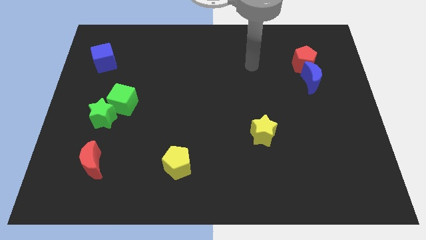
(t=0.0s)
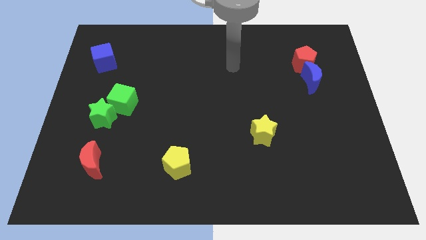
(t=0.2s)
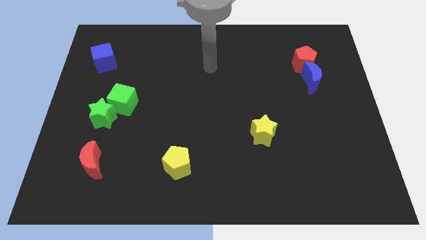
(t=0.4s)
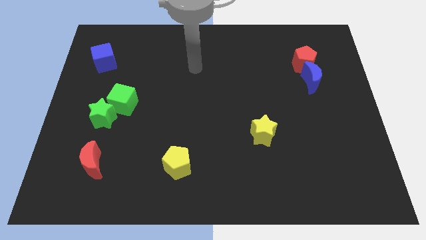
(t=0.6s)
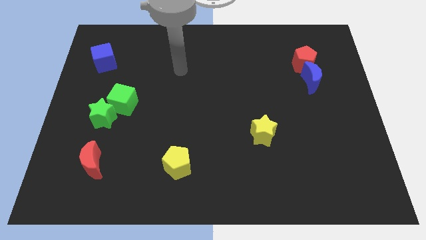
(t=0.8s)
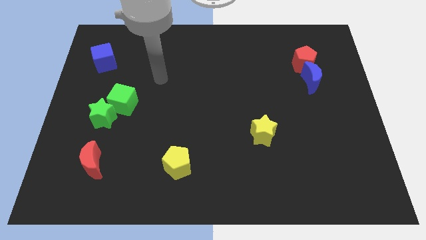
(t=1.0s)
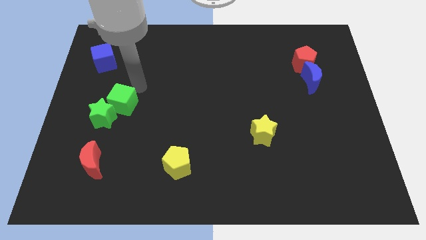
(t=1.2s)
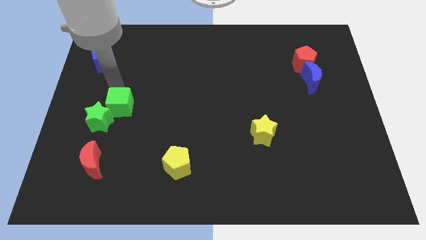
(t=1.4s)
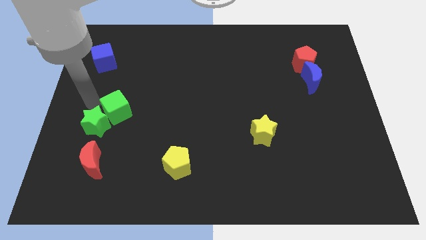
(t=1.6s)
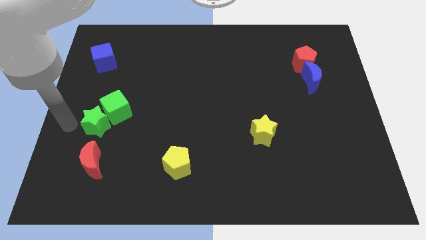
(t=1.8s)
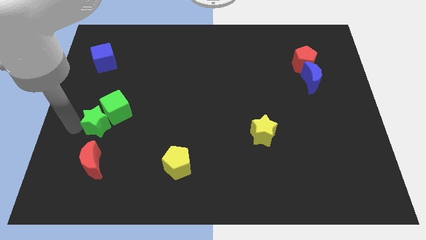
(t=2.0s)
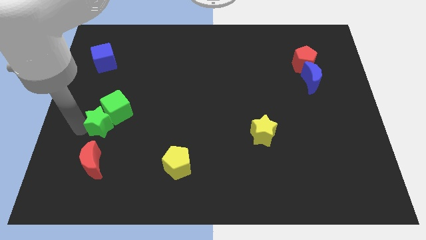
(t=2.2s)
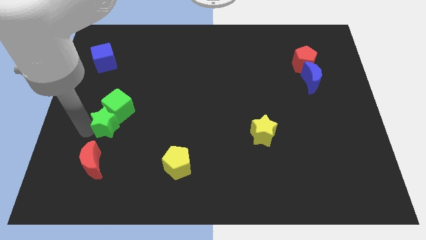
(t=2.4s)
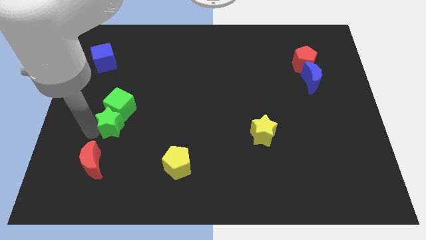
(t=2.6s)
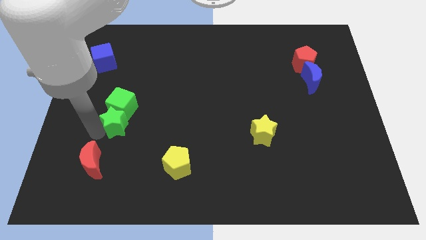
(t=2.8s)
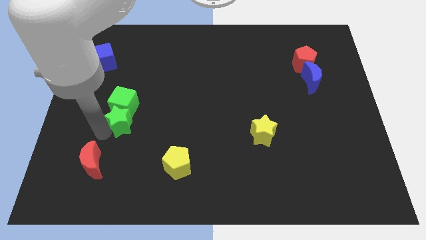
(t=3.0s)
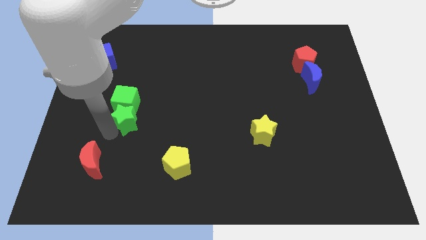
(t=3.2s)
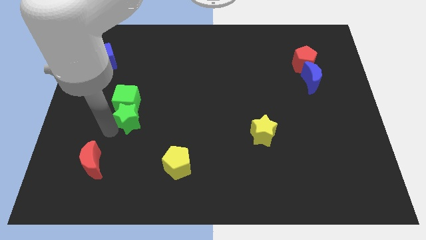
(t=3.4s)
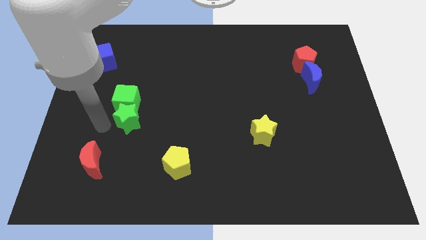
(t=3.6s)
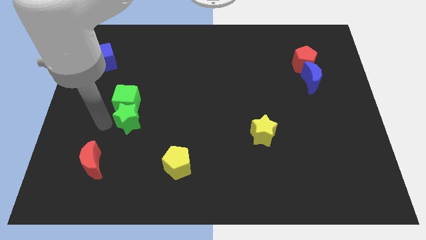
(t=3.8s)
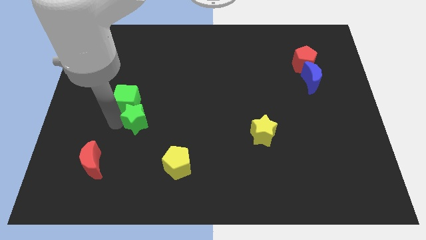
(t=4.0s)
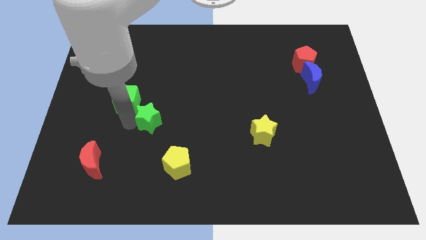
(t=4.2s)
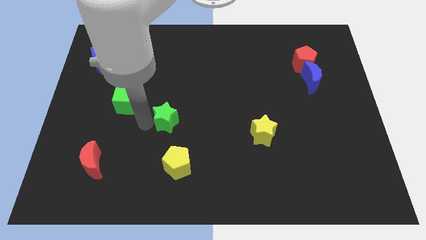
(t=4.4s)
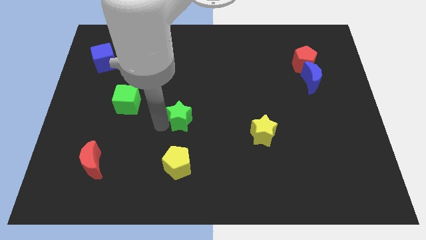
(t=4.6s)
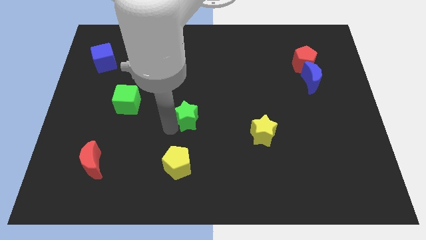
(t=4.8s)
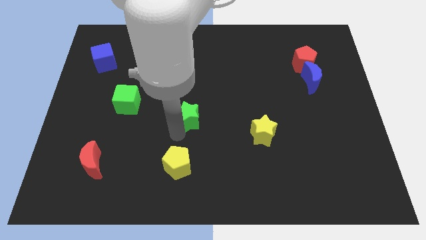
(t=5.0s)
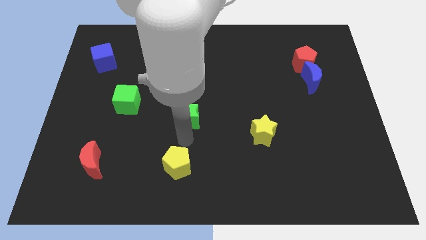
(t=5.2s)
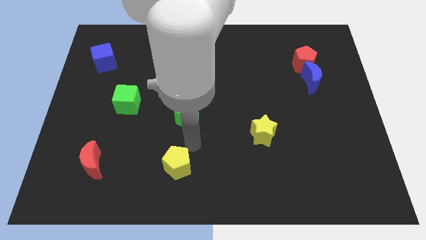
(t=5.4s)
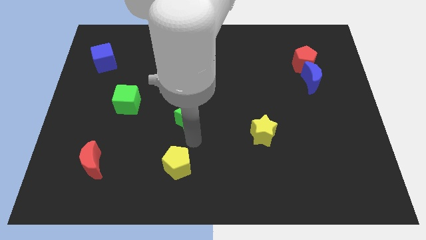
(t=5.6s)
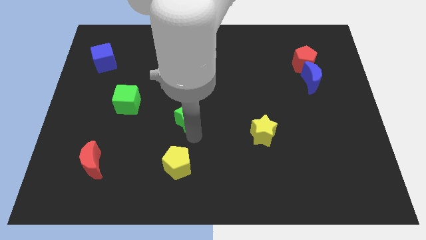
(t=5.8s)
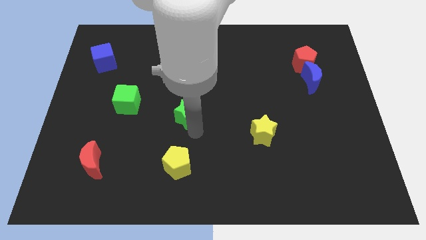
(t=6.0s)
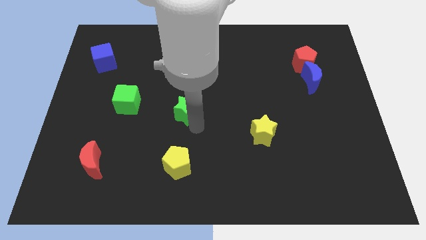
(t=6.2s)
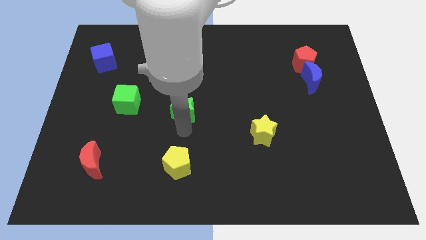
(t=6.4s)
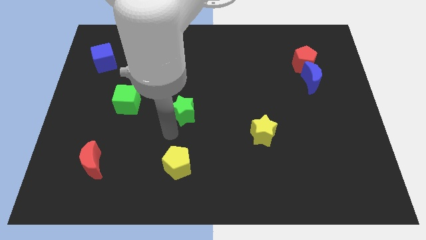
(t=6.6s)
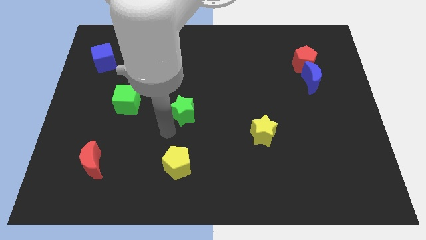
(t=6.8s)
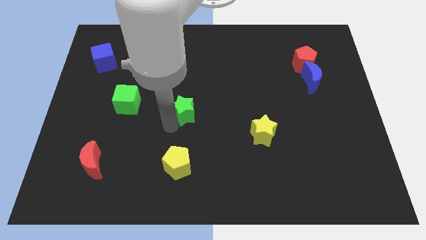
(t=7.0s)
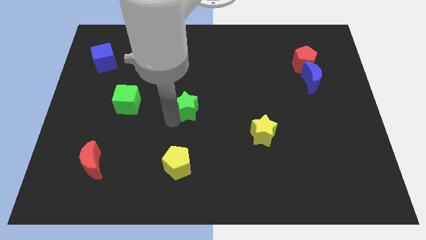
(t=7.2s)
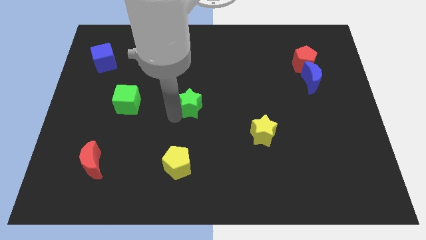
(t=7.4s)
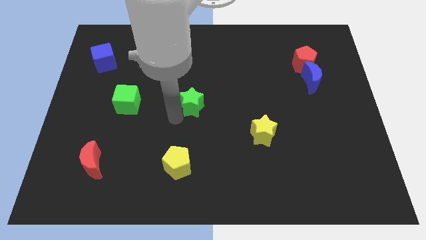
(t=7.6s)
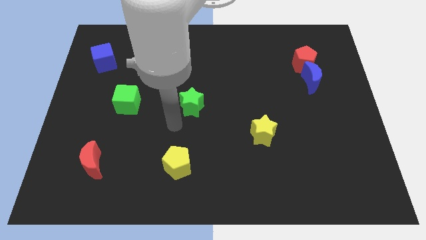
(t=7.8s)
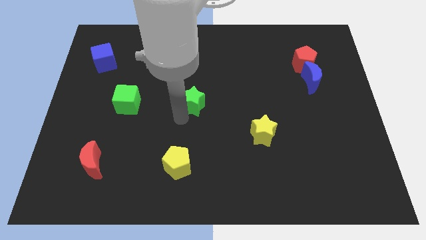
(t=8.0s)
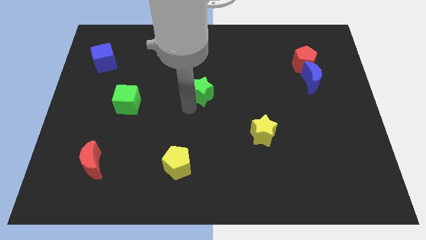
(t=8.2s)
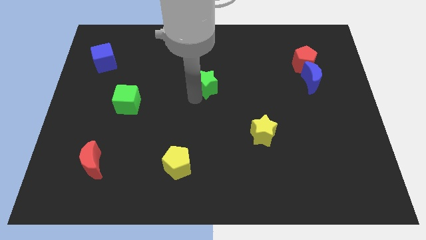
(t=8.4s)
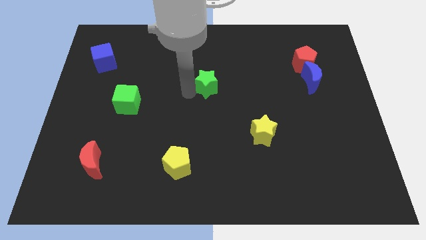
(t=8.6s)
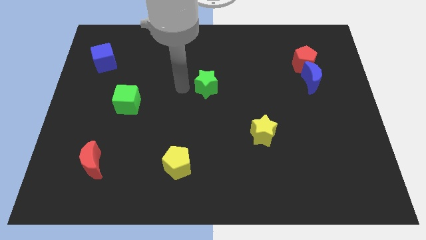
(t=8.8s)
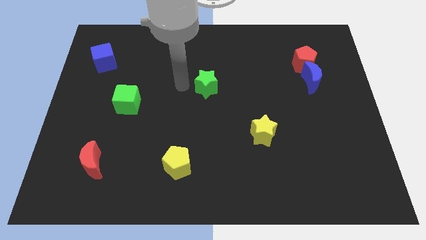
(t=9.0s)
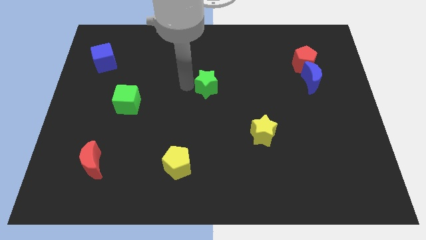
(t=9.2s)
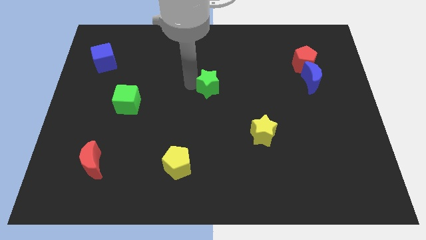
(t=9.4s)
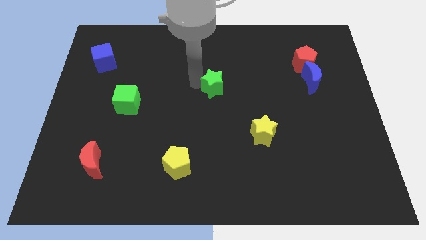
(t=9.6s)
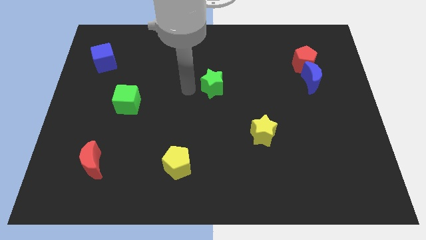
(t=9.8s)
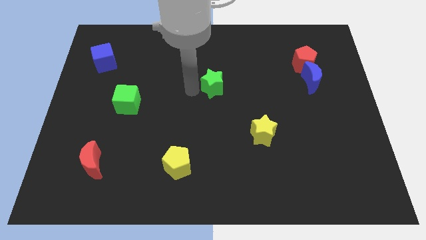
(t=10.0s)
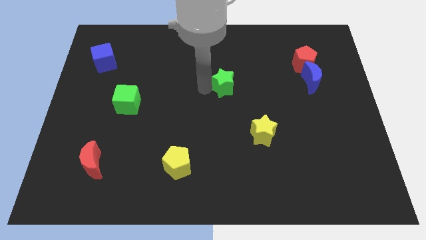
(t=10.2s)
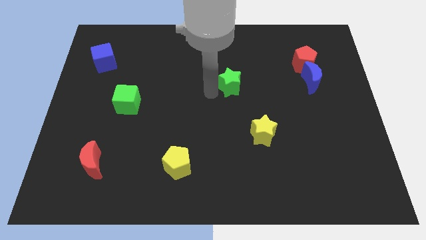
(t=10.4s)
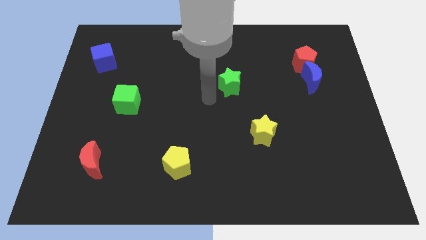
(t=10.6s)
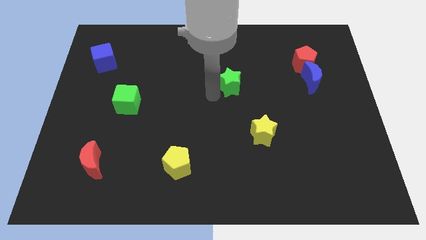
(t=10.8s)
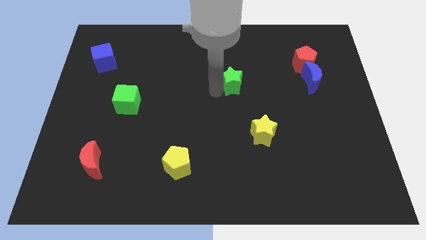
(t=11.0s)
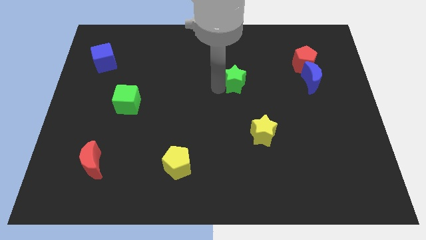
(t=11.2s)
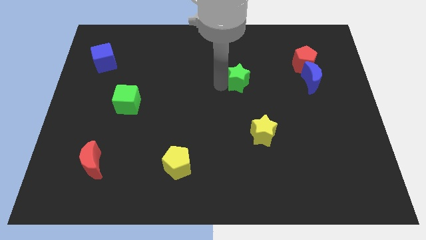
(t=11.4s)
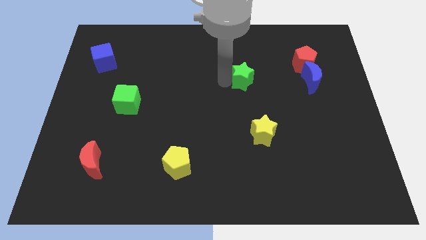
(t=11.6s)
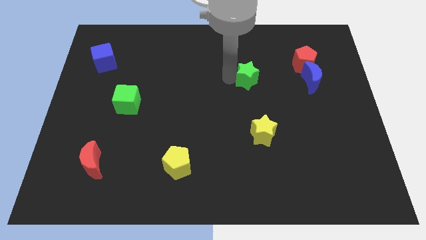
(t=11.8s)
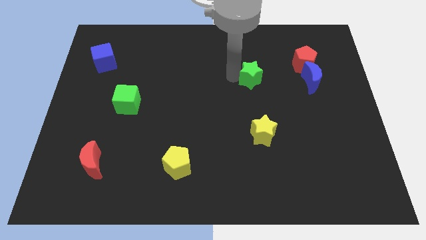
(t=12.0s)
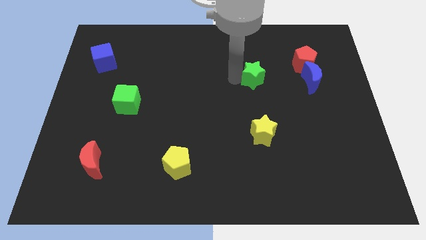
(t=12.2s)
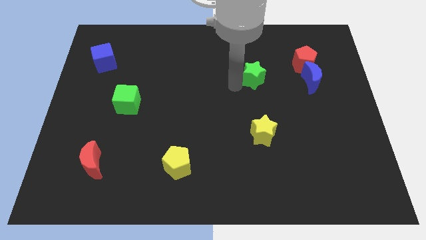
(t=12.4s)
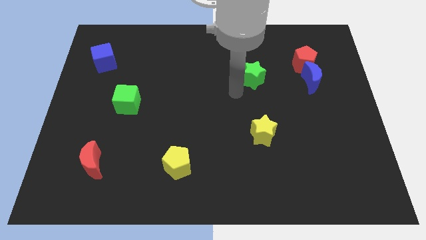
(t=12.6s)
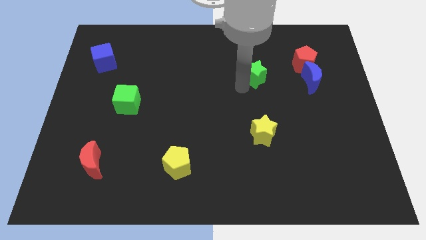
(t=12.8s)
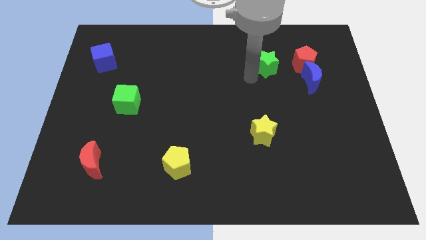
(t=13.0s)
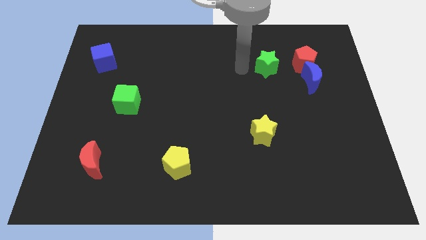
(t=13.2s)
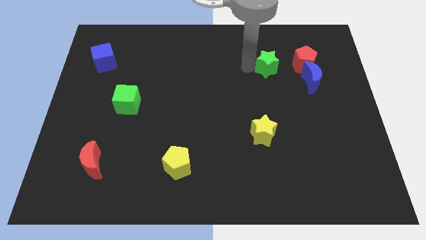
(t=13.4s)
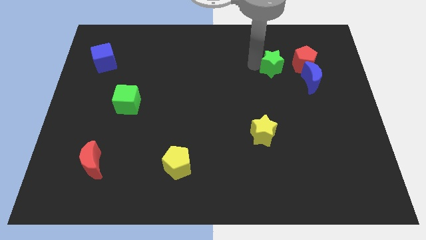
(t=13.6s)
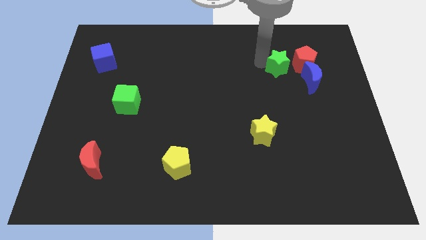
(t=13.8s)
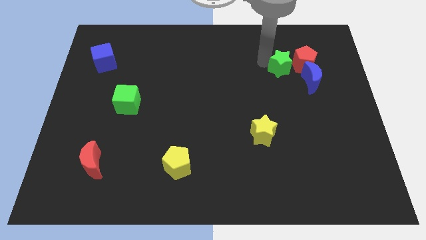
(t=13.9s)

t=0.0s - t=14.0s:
move the green star to the red pentagon
